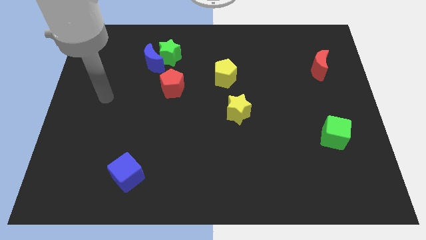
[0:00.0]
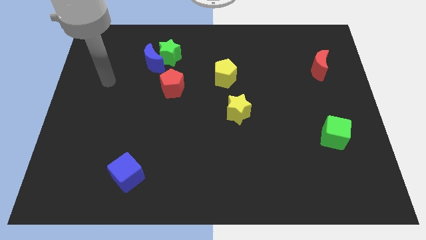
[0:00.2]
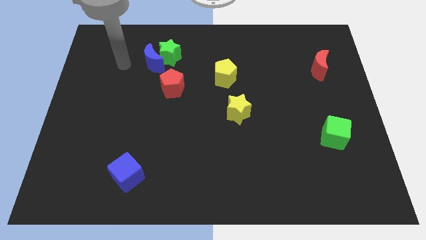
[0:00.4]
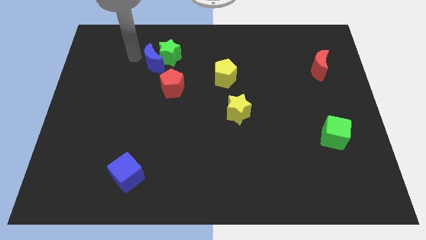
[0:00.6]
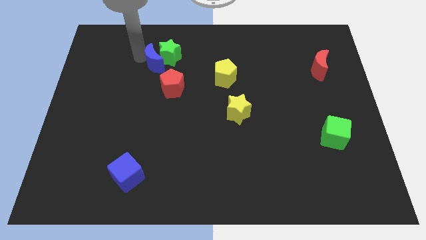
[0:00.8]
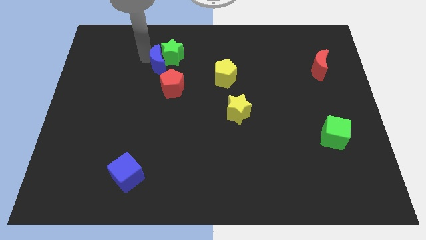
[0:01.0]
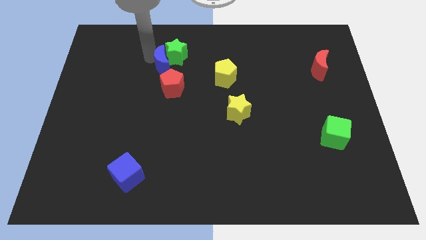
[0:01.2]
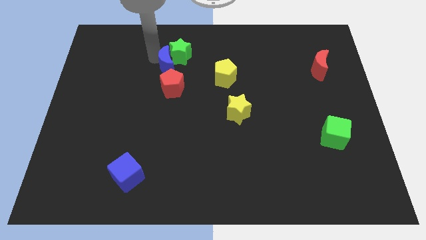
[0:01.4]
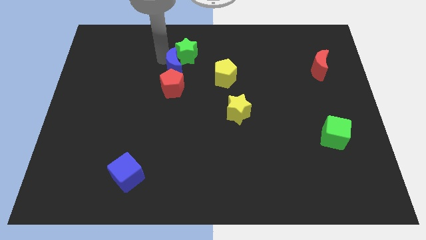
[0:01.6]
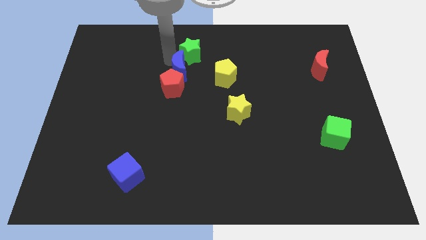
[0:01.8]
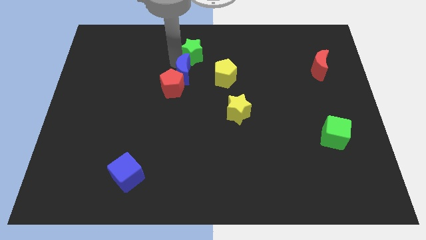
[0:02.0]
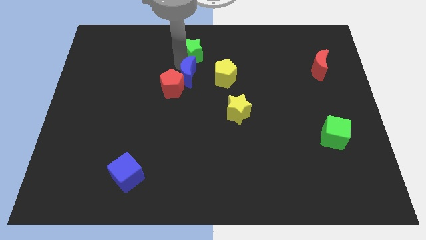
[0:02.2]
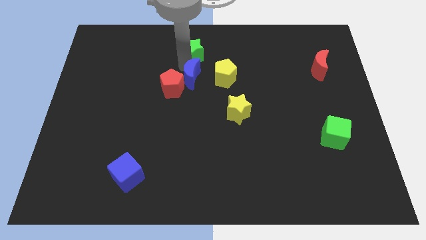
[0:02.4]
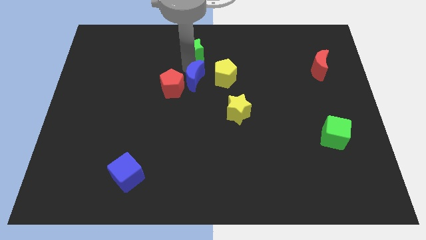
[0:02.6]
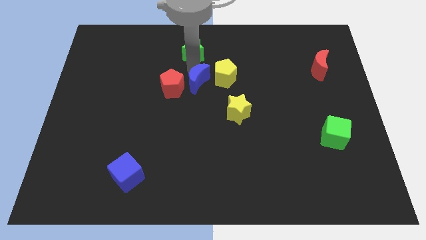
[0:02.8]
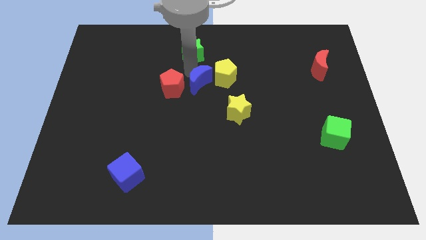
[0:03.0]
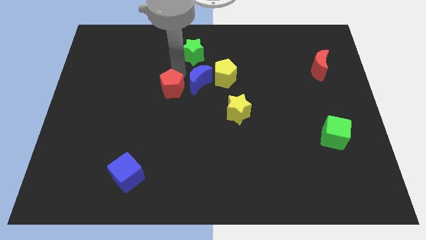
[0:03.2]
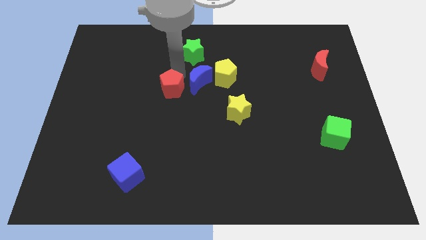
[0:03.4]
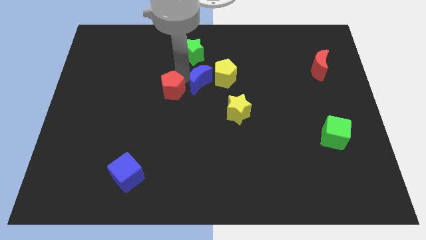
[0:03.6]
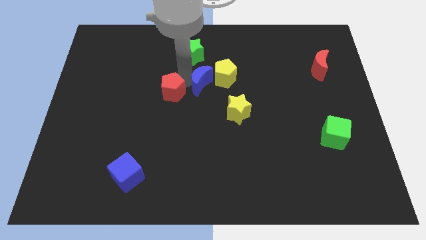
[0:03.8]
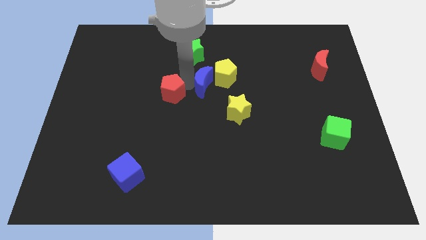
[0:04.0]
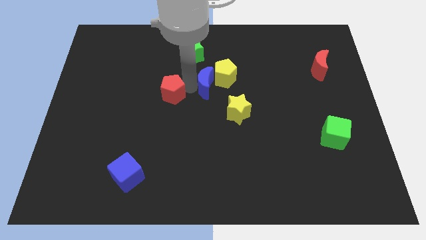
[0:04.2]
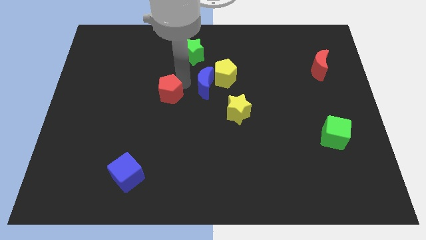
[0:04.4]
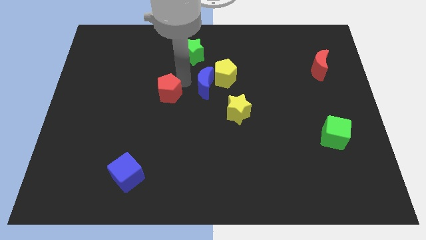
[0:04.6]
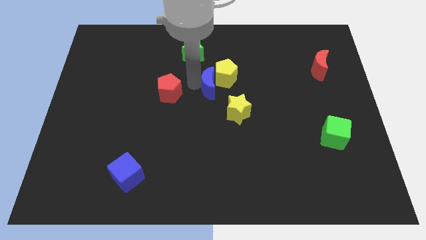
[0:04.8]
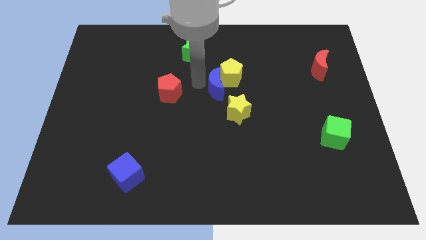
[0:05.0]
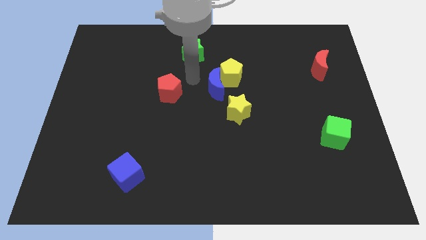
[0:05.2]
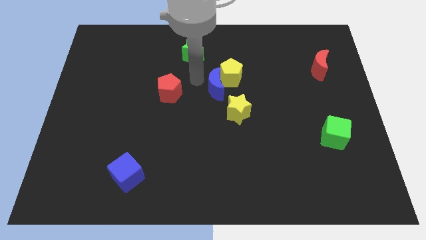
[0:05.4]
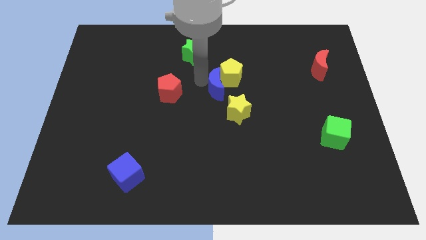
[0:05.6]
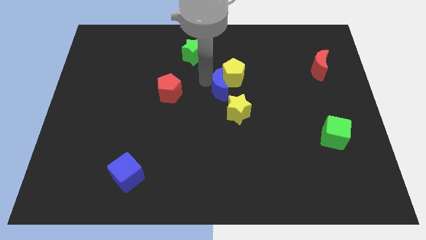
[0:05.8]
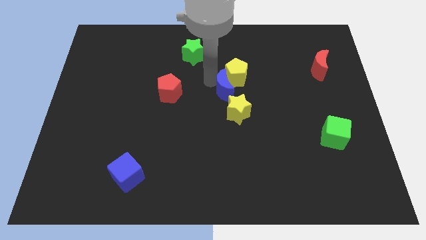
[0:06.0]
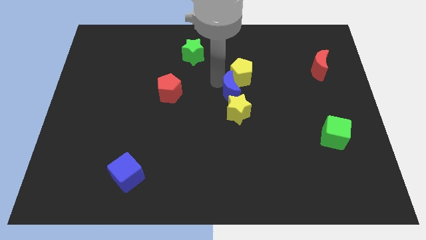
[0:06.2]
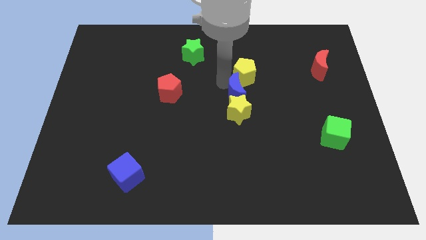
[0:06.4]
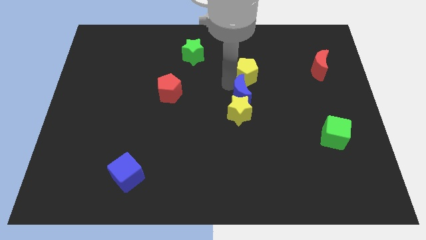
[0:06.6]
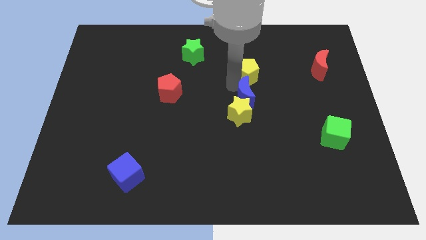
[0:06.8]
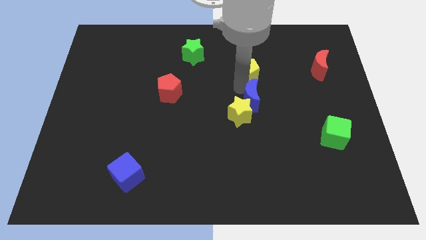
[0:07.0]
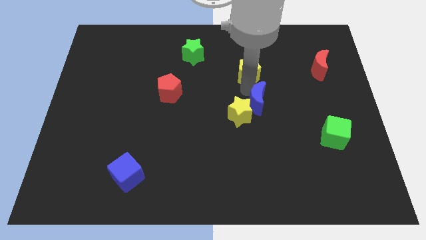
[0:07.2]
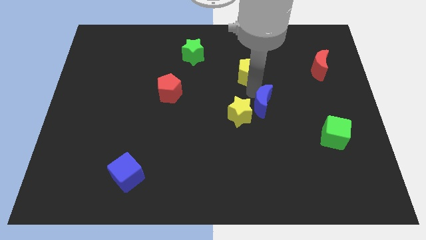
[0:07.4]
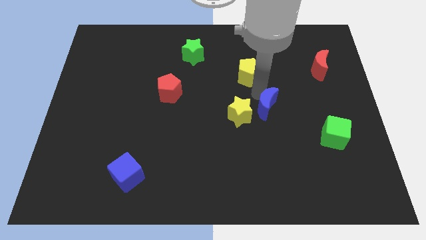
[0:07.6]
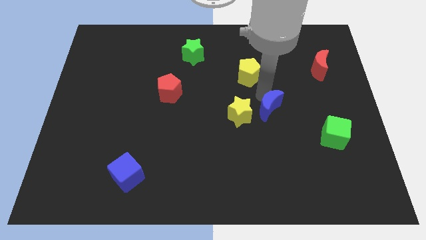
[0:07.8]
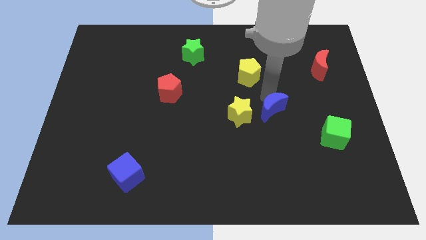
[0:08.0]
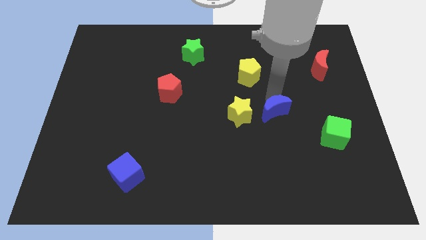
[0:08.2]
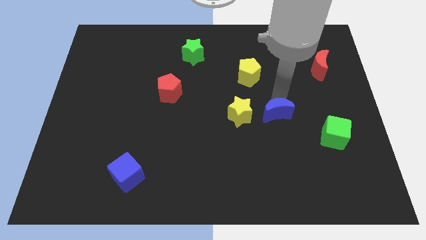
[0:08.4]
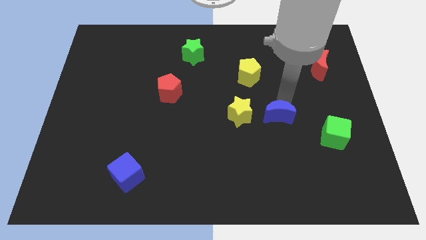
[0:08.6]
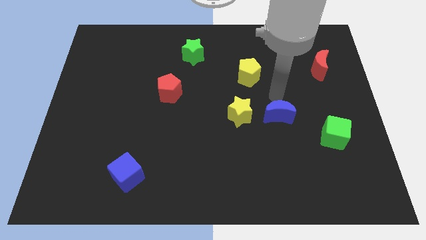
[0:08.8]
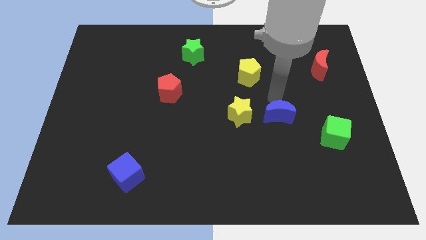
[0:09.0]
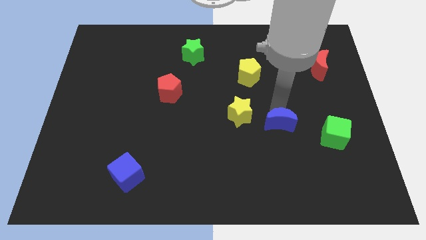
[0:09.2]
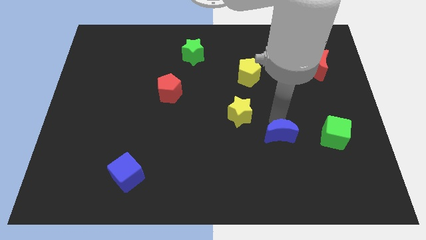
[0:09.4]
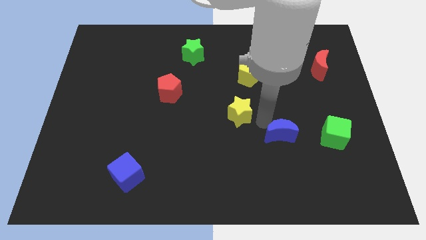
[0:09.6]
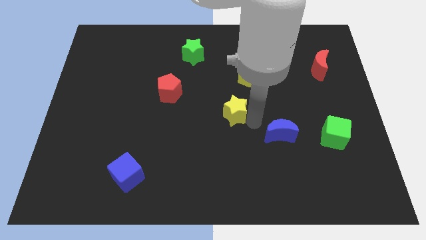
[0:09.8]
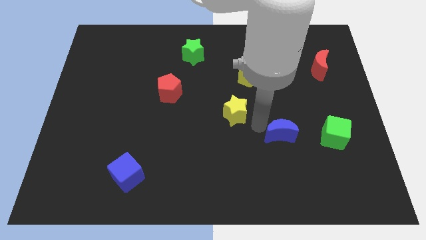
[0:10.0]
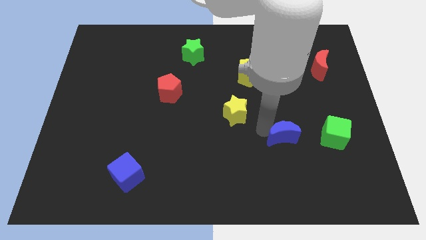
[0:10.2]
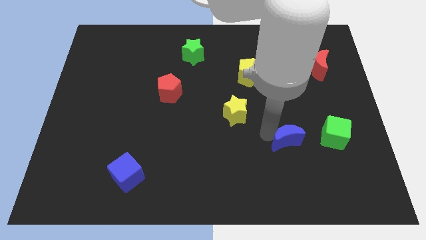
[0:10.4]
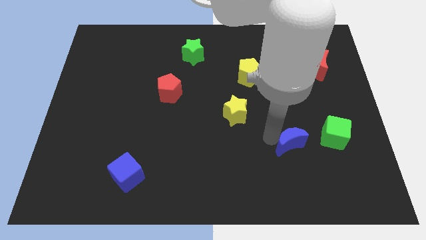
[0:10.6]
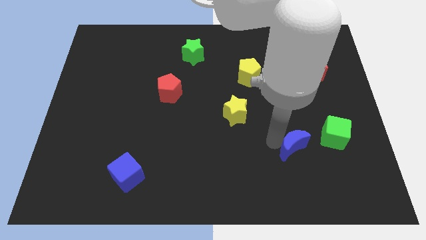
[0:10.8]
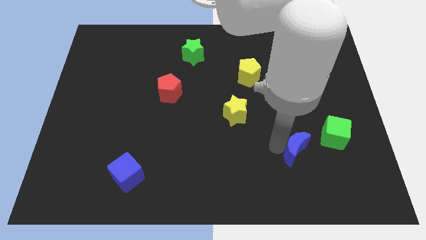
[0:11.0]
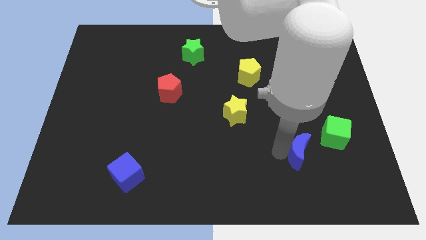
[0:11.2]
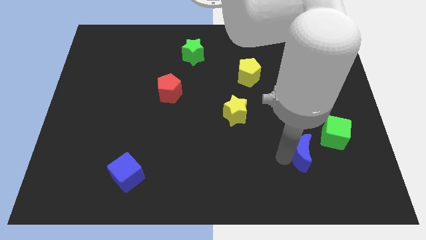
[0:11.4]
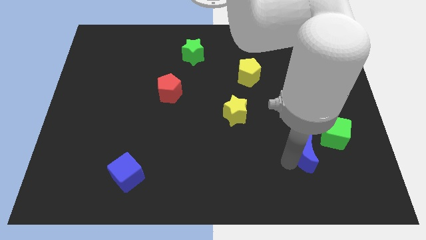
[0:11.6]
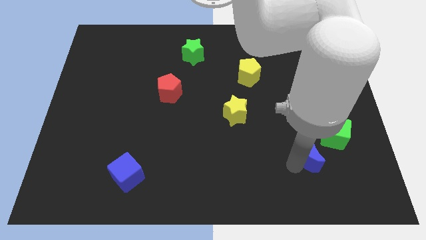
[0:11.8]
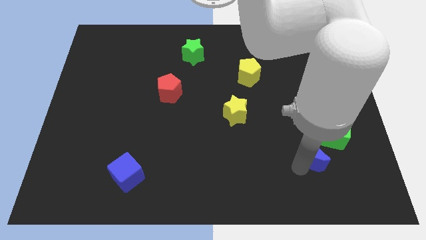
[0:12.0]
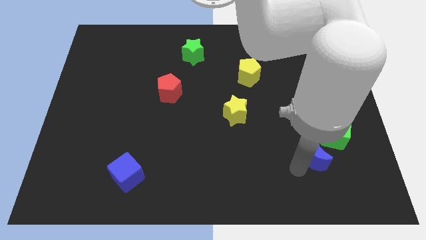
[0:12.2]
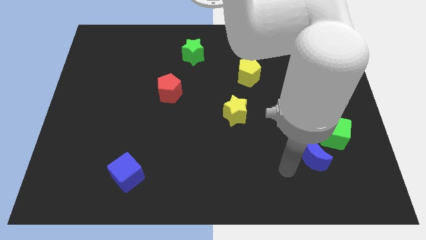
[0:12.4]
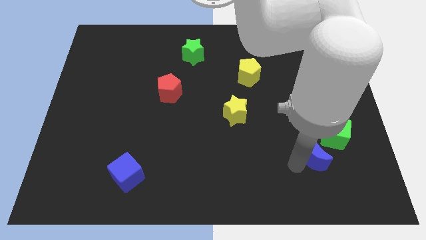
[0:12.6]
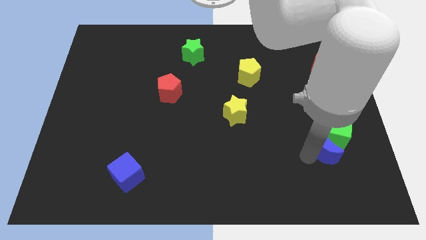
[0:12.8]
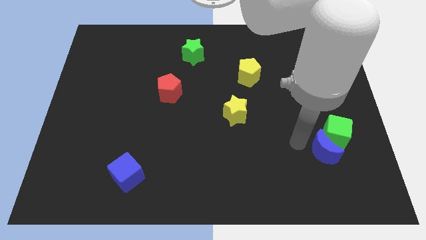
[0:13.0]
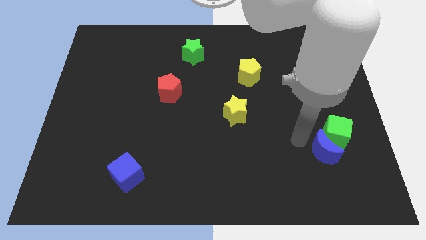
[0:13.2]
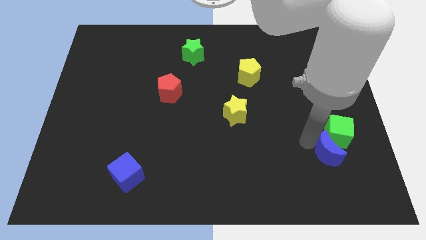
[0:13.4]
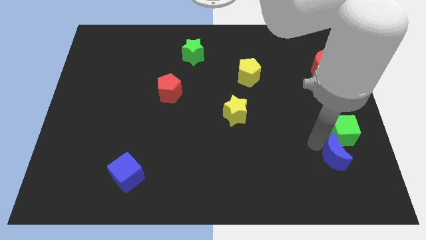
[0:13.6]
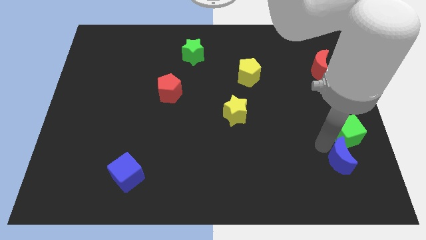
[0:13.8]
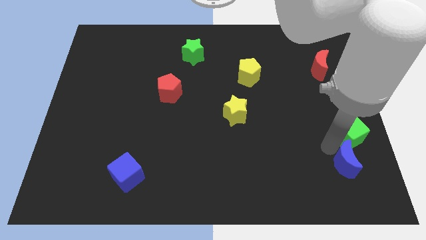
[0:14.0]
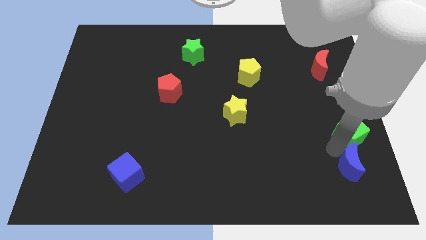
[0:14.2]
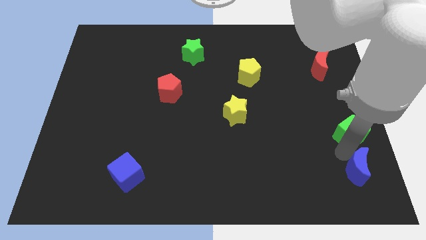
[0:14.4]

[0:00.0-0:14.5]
push the blue moon to the lower right corner
